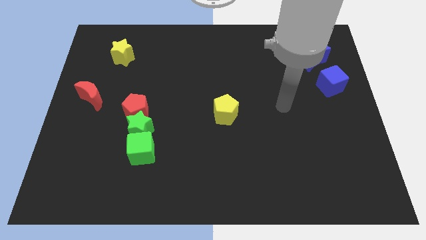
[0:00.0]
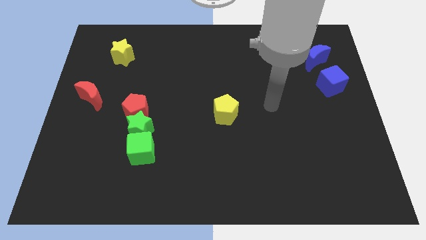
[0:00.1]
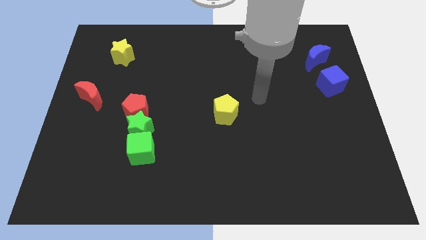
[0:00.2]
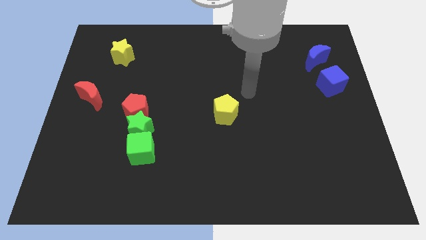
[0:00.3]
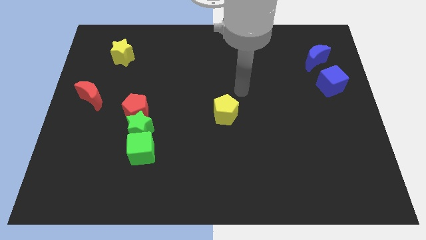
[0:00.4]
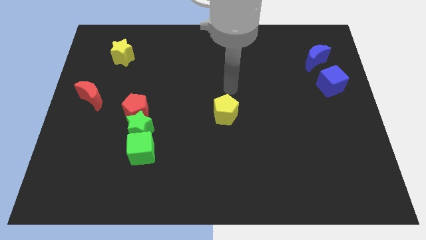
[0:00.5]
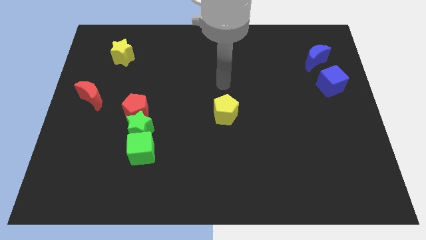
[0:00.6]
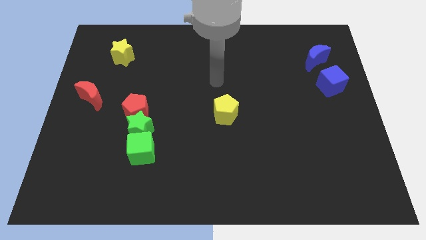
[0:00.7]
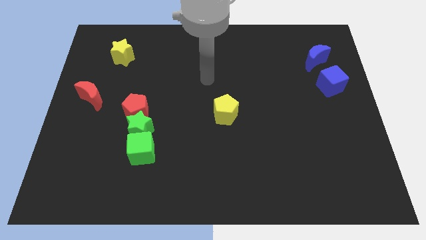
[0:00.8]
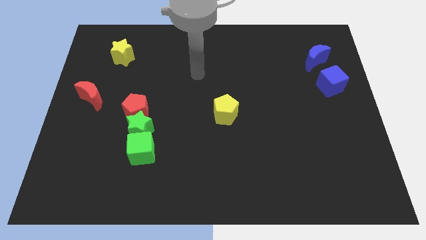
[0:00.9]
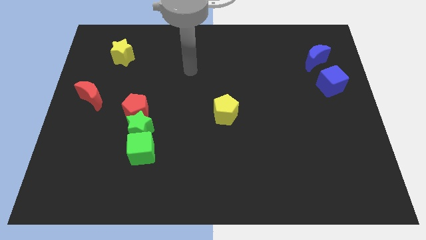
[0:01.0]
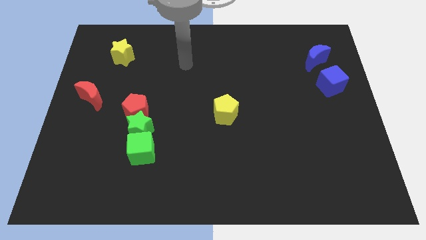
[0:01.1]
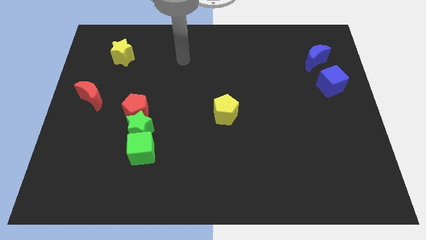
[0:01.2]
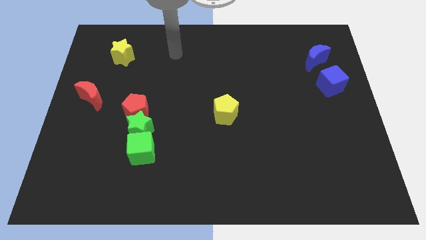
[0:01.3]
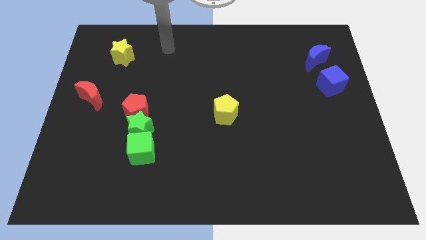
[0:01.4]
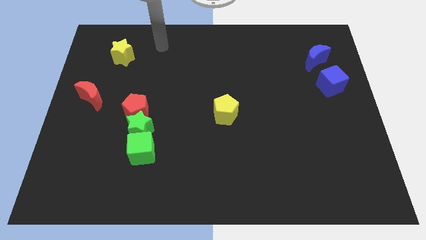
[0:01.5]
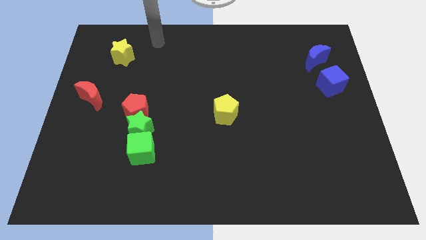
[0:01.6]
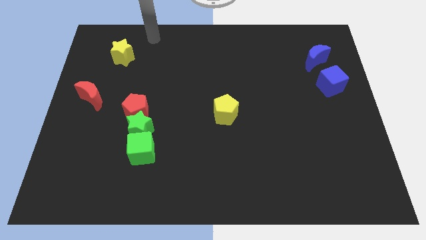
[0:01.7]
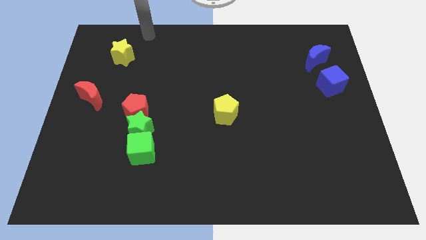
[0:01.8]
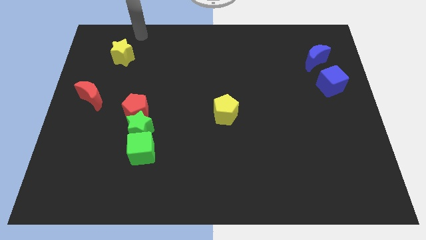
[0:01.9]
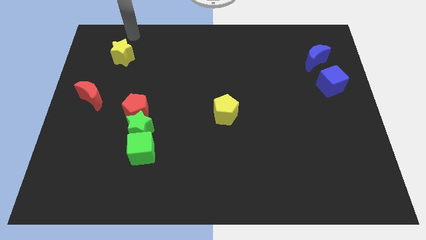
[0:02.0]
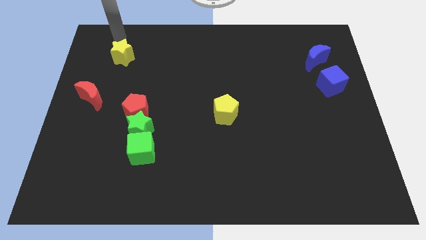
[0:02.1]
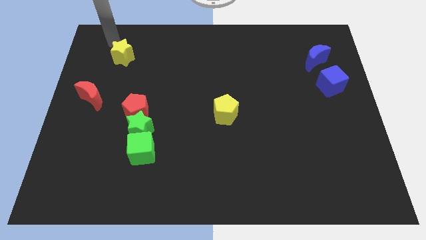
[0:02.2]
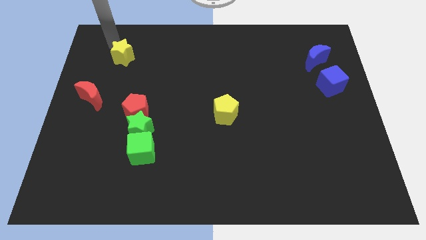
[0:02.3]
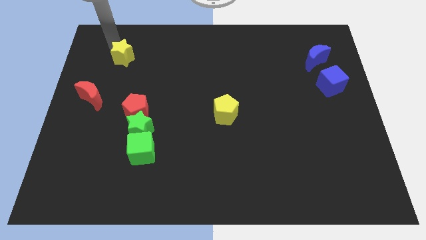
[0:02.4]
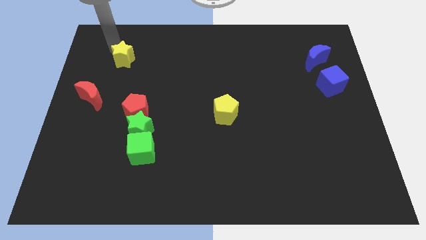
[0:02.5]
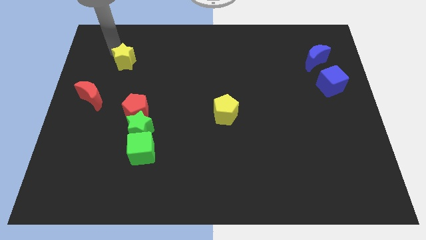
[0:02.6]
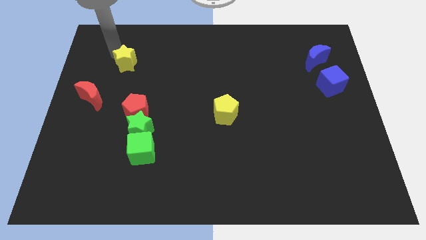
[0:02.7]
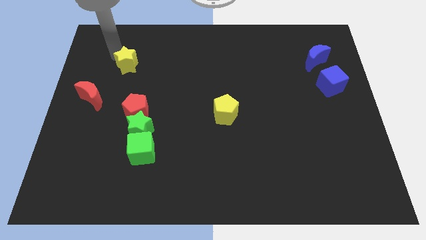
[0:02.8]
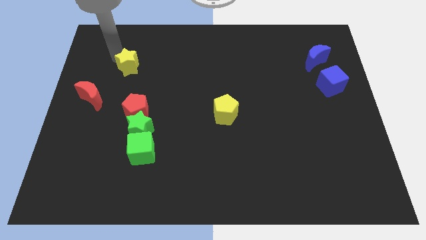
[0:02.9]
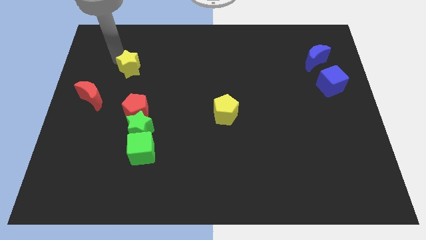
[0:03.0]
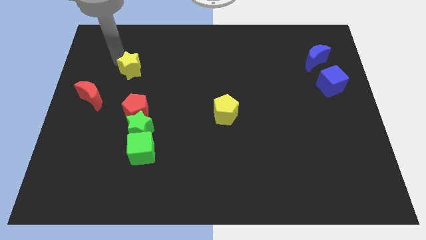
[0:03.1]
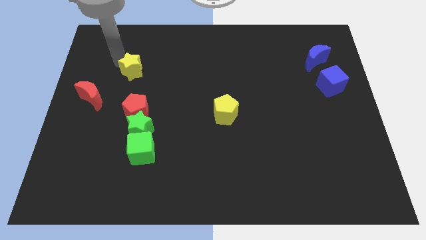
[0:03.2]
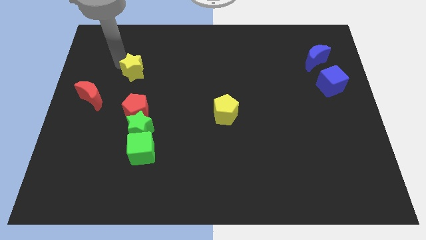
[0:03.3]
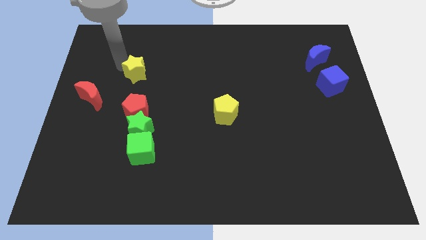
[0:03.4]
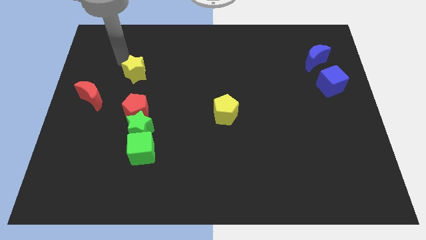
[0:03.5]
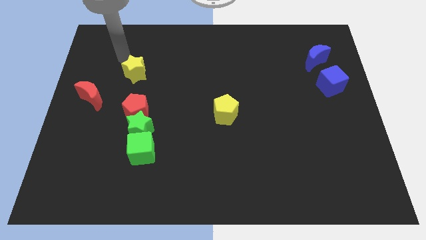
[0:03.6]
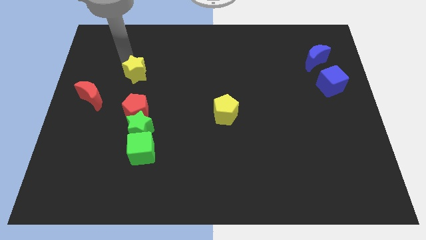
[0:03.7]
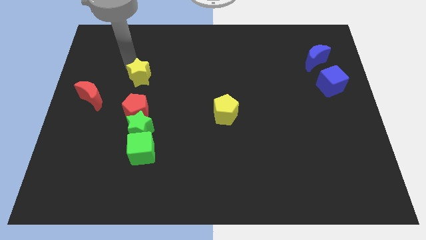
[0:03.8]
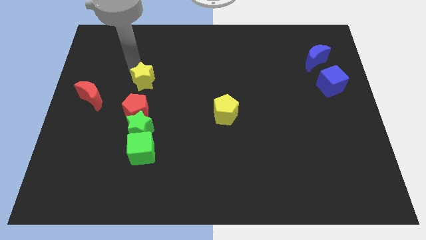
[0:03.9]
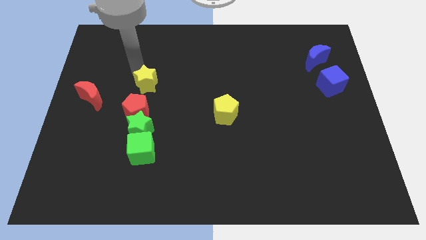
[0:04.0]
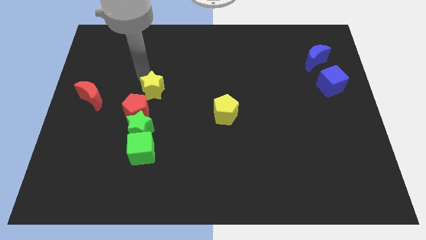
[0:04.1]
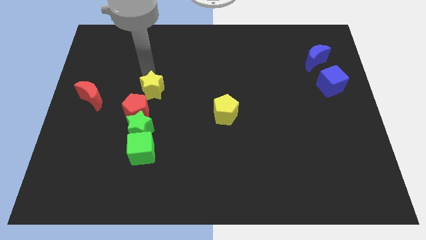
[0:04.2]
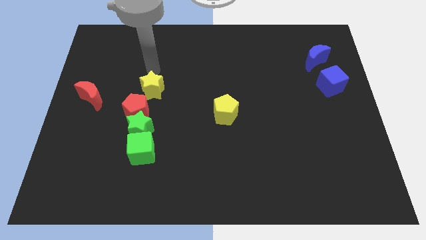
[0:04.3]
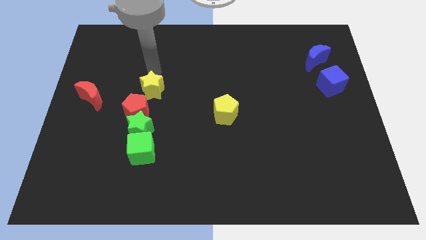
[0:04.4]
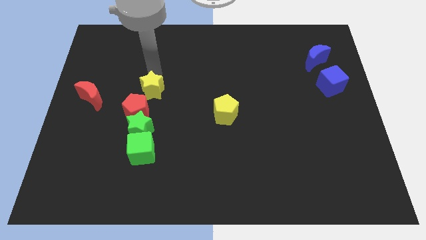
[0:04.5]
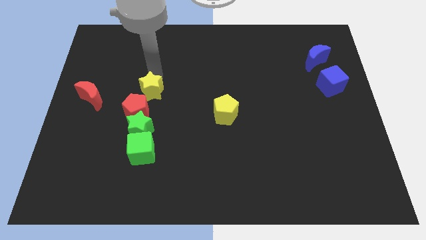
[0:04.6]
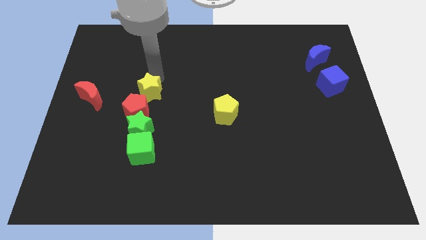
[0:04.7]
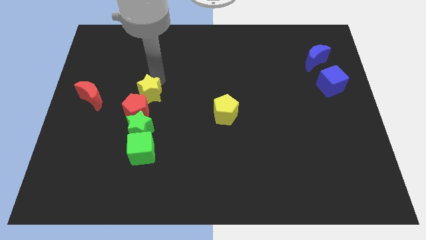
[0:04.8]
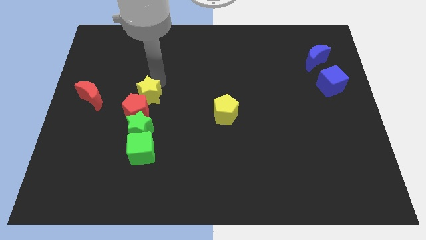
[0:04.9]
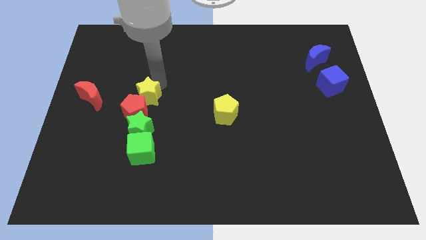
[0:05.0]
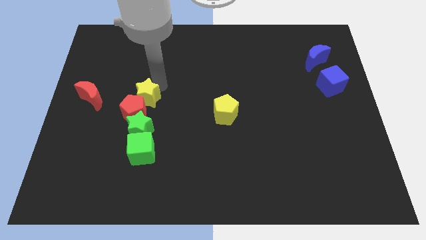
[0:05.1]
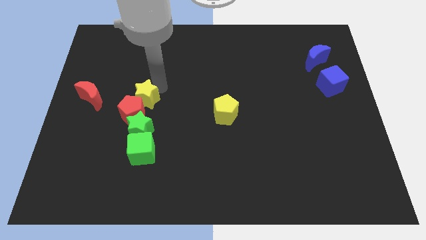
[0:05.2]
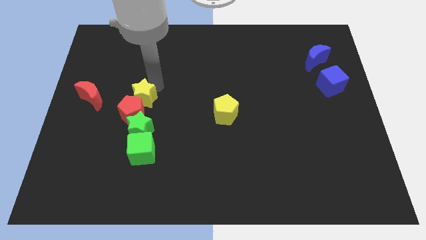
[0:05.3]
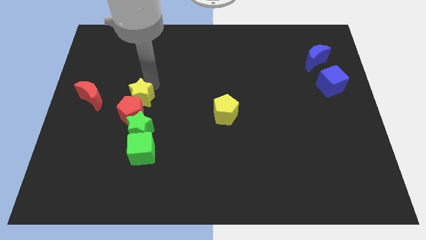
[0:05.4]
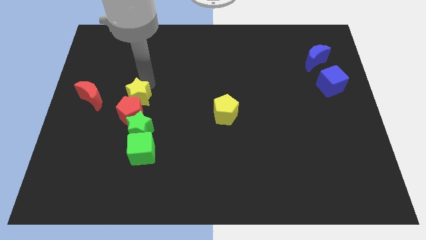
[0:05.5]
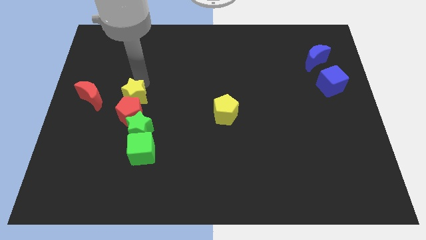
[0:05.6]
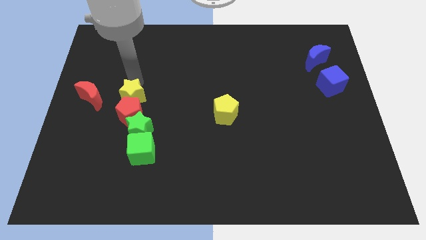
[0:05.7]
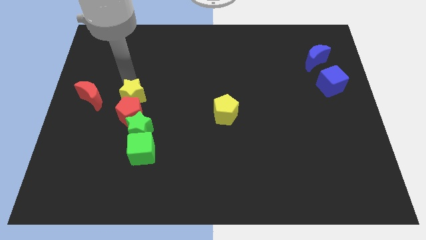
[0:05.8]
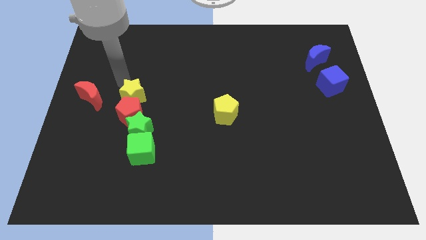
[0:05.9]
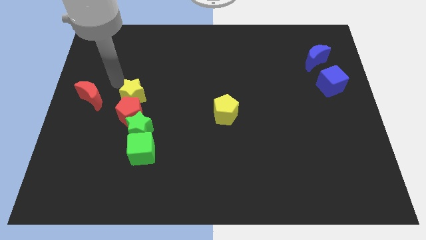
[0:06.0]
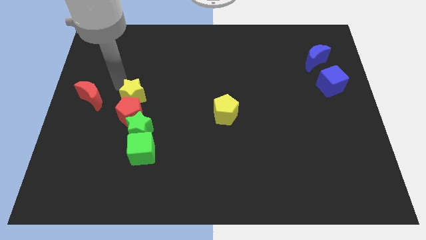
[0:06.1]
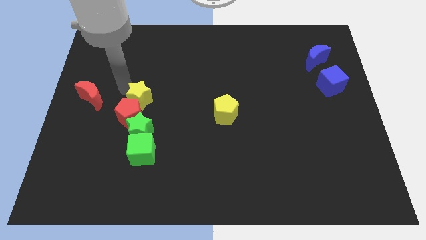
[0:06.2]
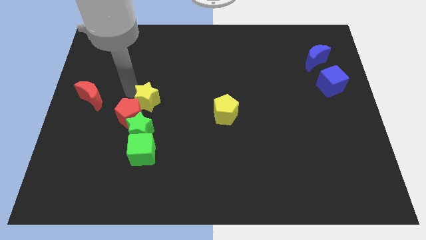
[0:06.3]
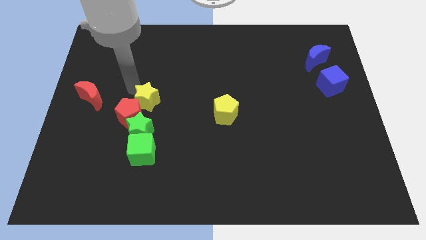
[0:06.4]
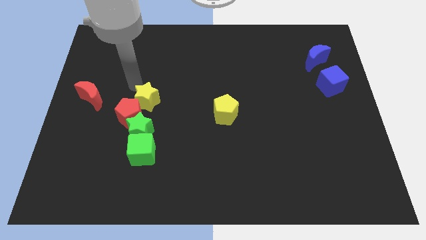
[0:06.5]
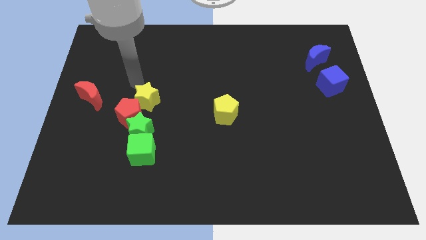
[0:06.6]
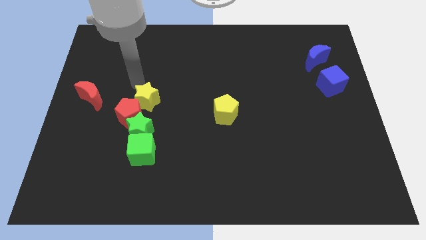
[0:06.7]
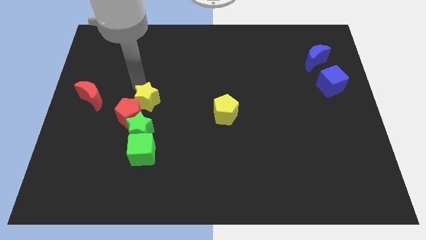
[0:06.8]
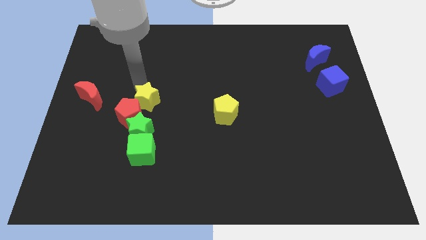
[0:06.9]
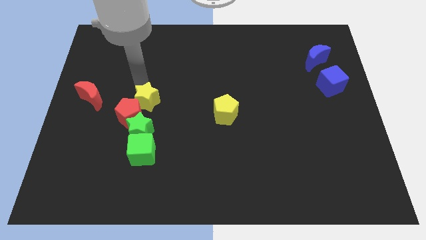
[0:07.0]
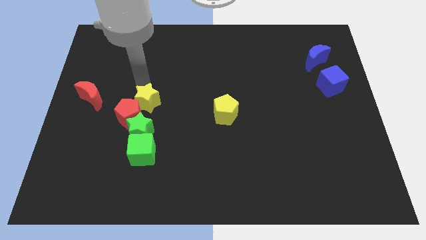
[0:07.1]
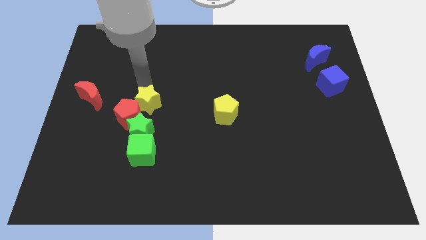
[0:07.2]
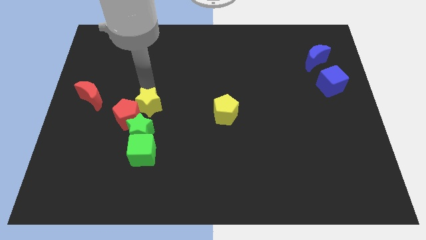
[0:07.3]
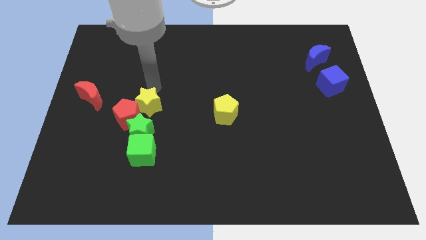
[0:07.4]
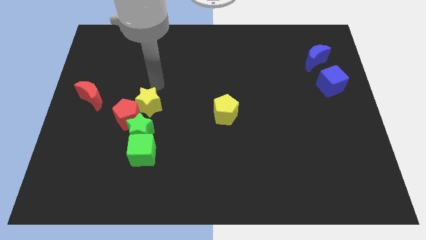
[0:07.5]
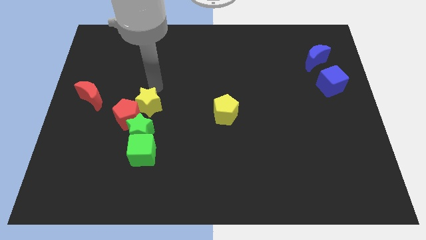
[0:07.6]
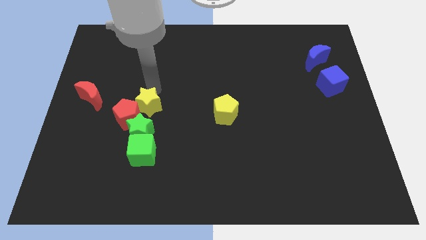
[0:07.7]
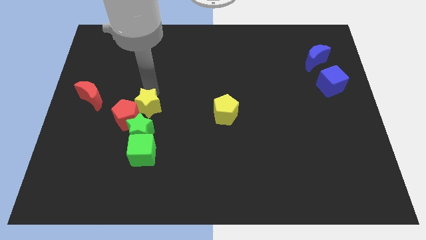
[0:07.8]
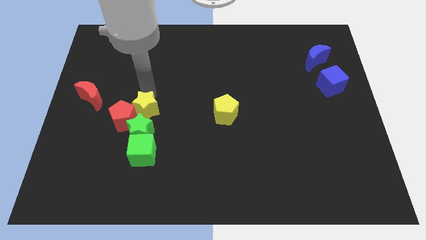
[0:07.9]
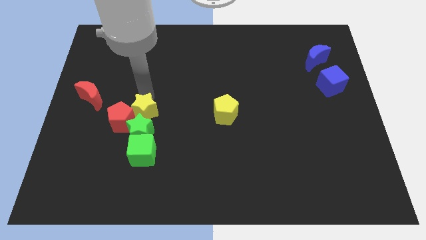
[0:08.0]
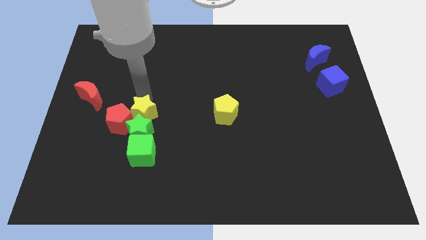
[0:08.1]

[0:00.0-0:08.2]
slide the yellow star close to the green star
